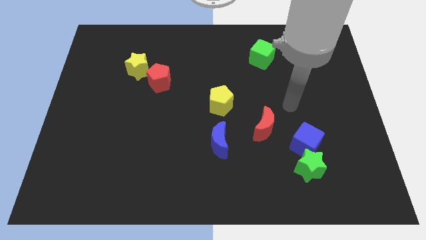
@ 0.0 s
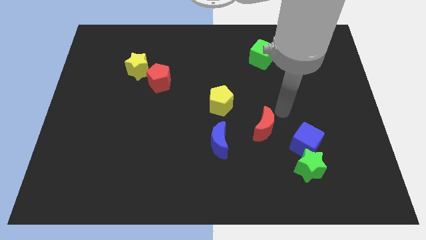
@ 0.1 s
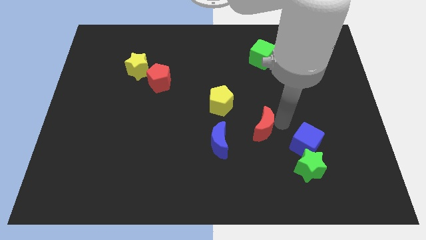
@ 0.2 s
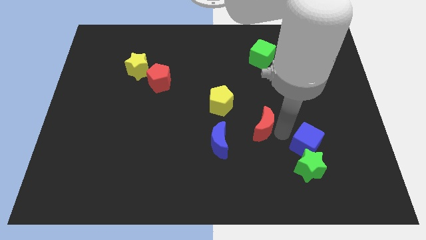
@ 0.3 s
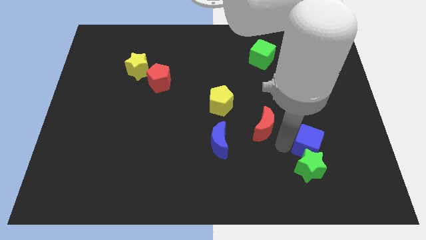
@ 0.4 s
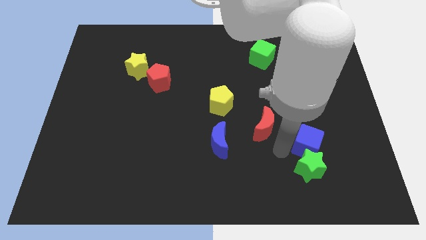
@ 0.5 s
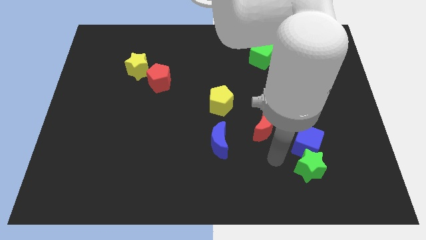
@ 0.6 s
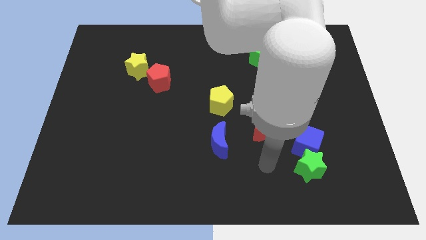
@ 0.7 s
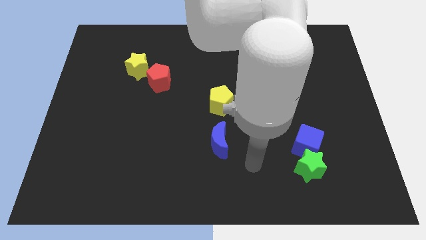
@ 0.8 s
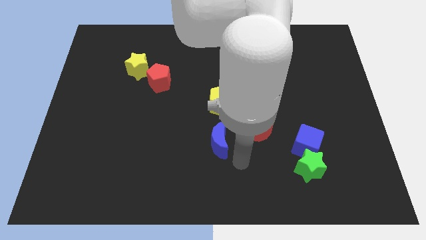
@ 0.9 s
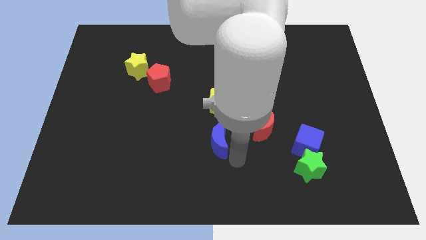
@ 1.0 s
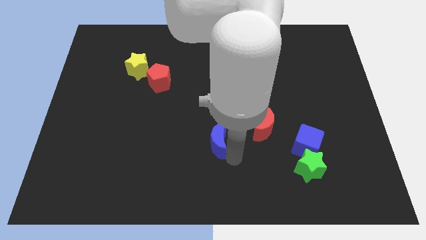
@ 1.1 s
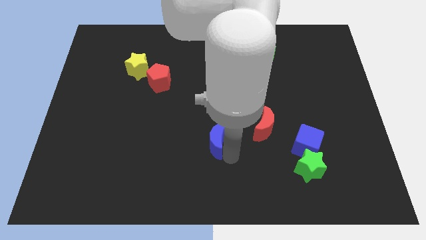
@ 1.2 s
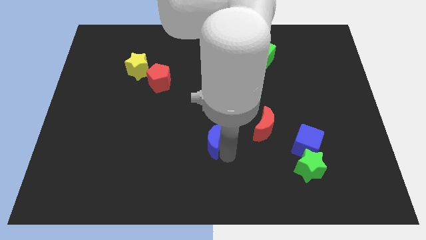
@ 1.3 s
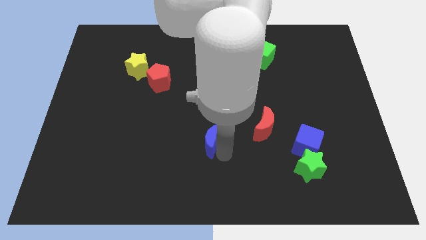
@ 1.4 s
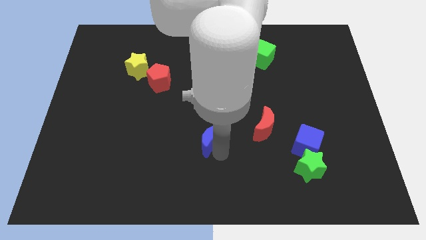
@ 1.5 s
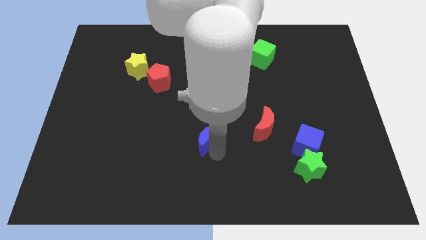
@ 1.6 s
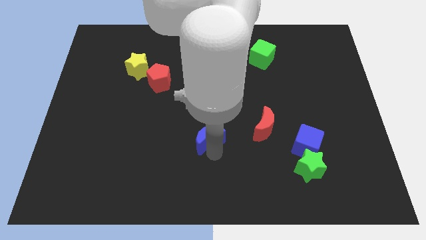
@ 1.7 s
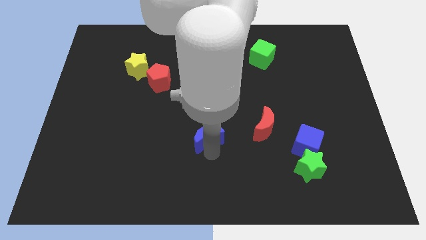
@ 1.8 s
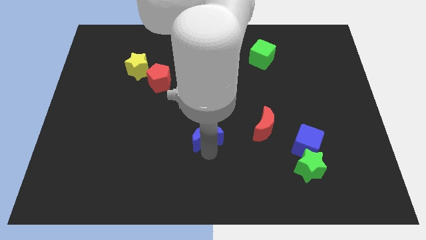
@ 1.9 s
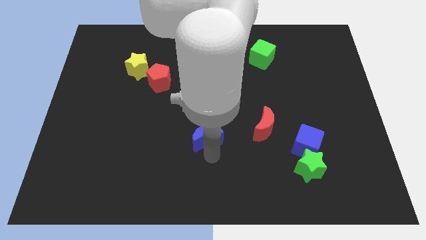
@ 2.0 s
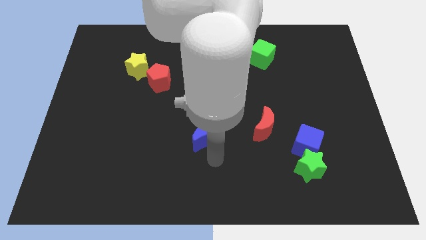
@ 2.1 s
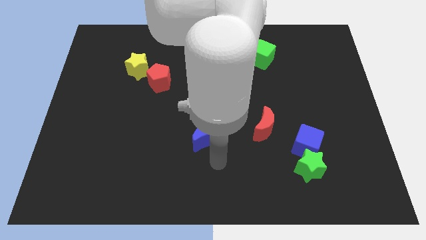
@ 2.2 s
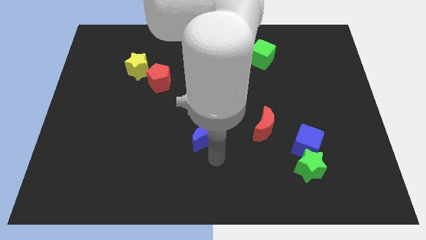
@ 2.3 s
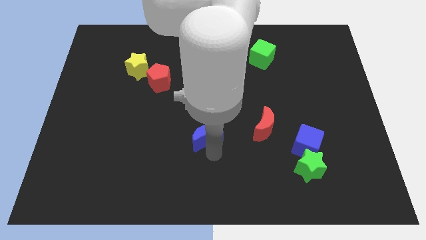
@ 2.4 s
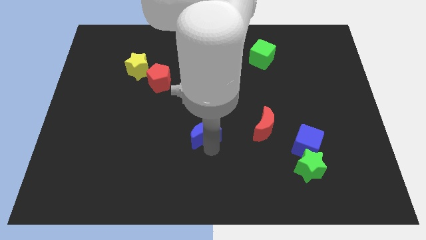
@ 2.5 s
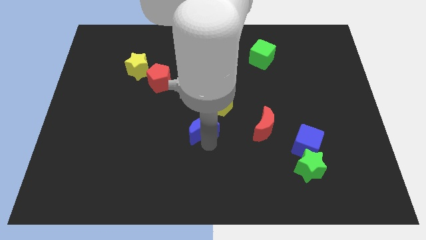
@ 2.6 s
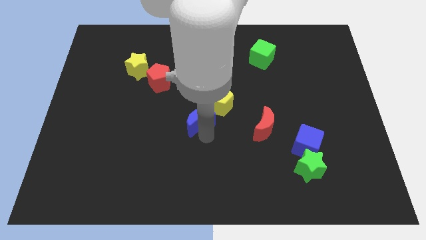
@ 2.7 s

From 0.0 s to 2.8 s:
push the blue moon a little upwards and left

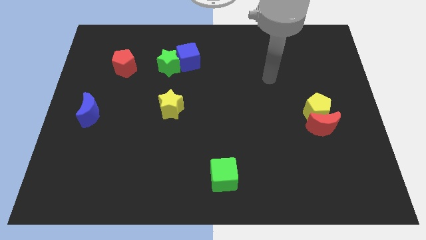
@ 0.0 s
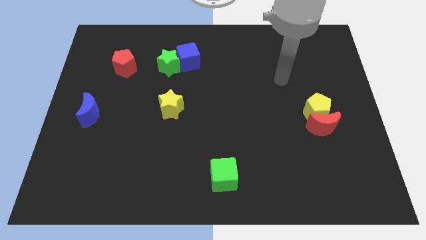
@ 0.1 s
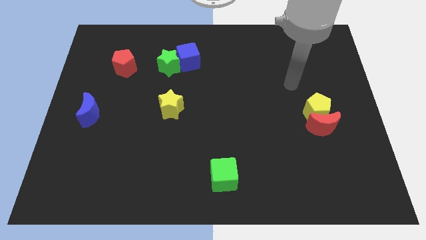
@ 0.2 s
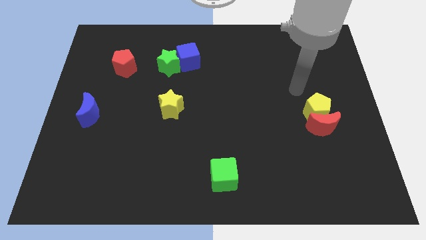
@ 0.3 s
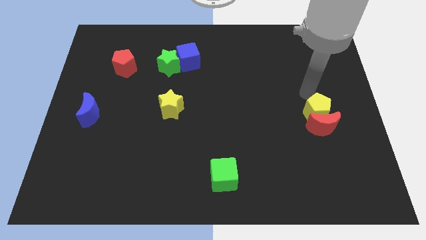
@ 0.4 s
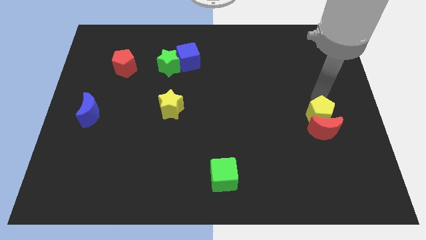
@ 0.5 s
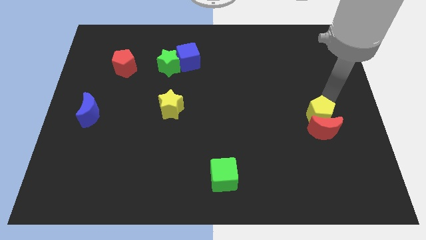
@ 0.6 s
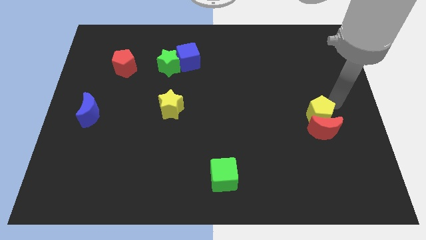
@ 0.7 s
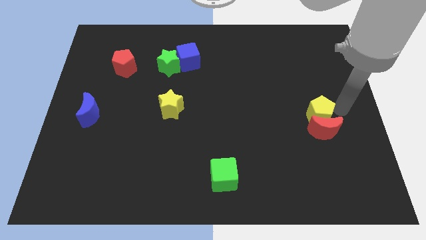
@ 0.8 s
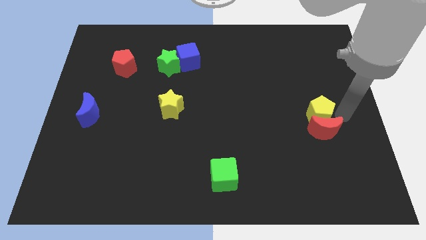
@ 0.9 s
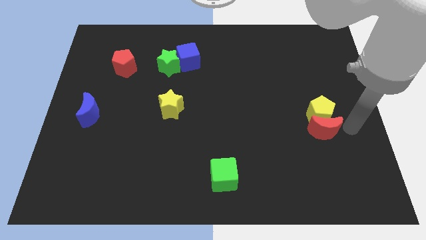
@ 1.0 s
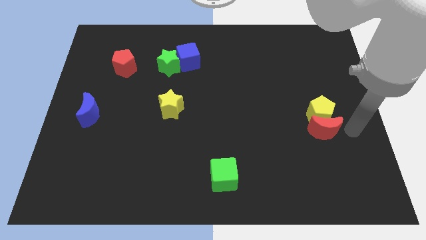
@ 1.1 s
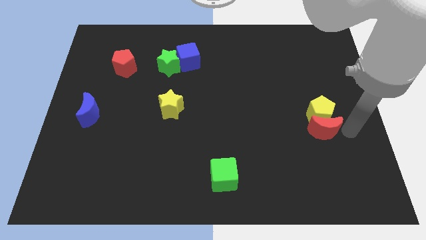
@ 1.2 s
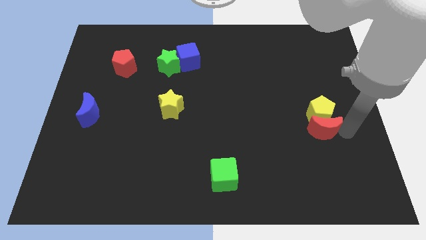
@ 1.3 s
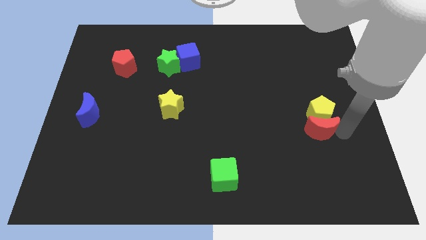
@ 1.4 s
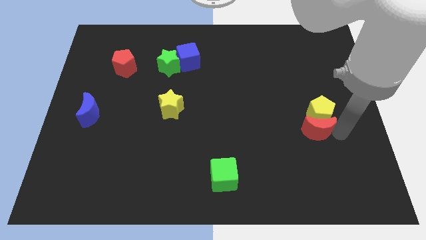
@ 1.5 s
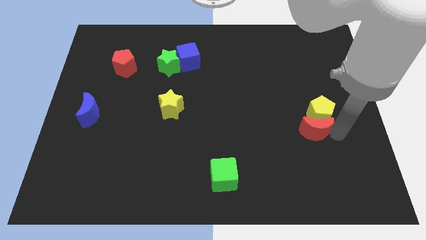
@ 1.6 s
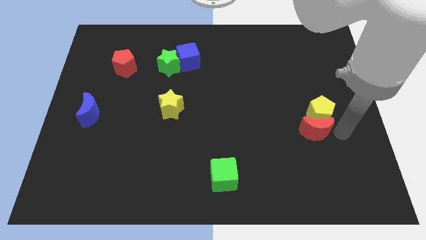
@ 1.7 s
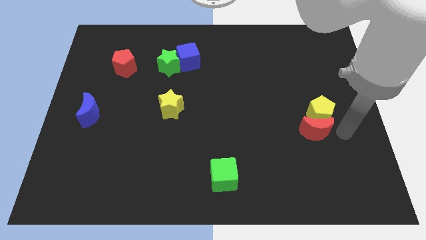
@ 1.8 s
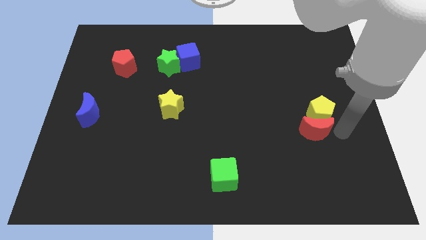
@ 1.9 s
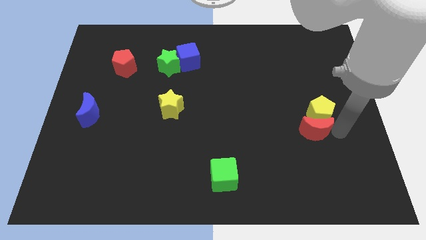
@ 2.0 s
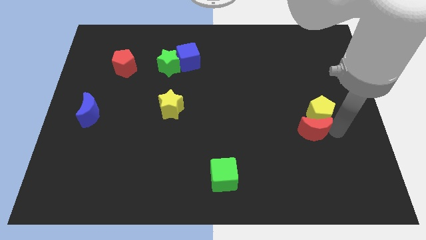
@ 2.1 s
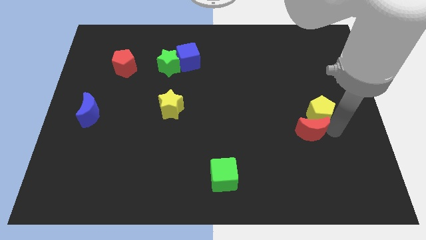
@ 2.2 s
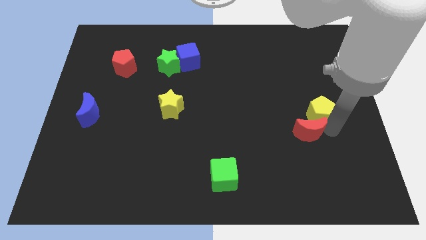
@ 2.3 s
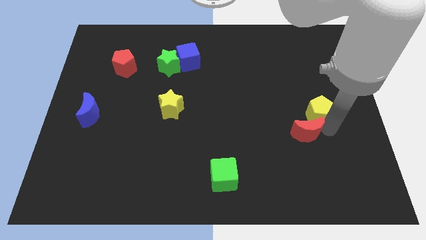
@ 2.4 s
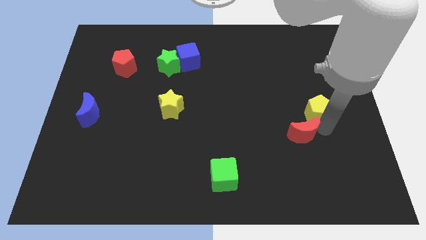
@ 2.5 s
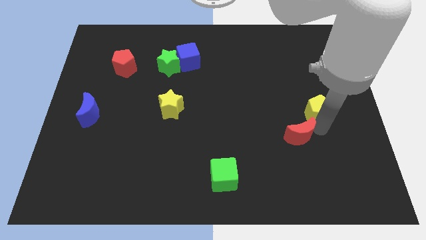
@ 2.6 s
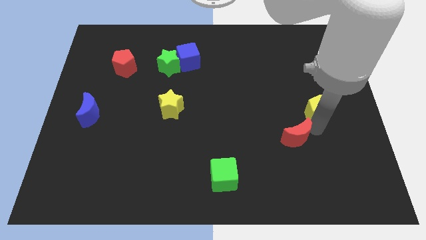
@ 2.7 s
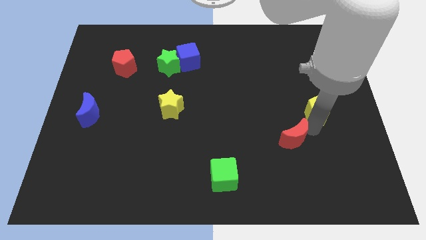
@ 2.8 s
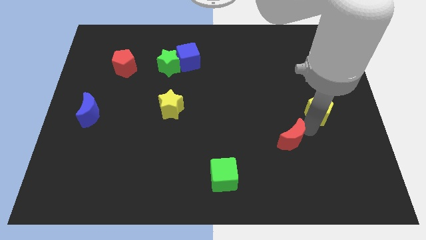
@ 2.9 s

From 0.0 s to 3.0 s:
slide the red moon a bit to the left

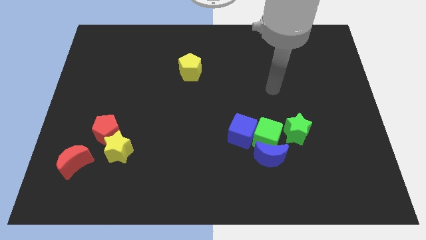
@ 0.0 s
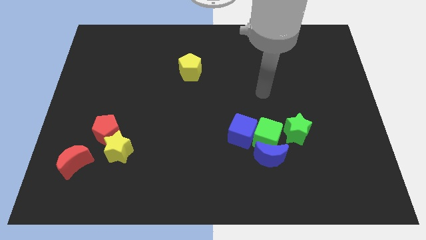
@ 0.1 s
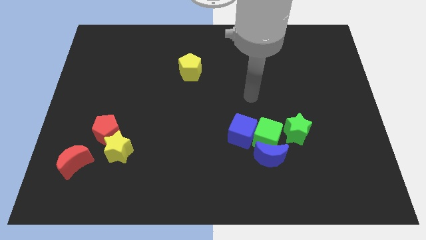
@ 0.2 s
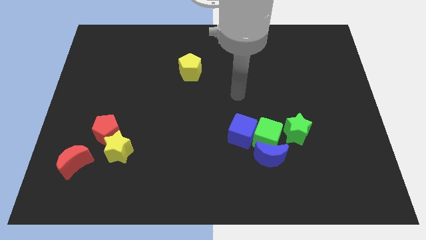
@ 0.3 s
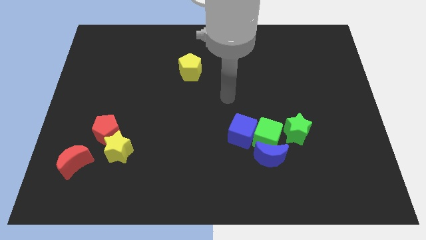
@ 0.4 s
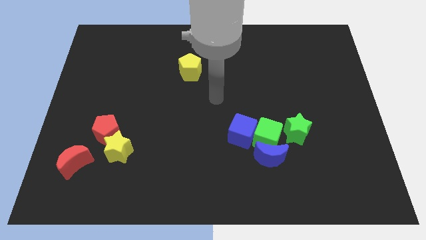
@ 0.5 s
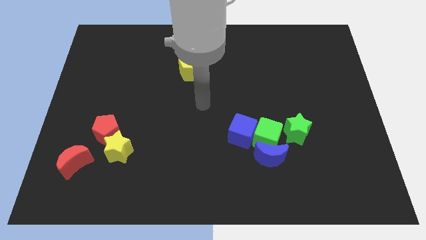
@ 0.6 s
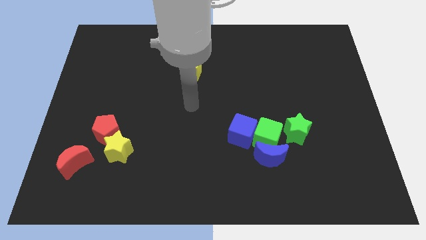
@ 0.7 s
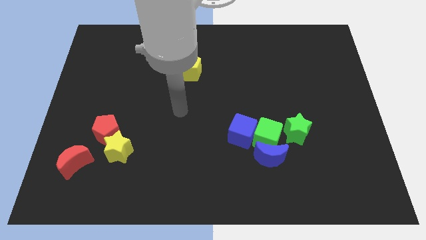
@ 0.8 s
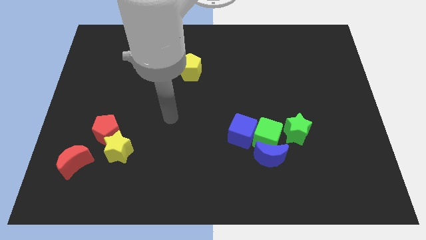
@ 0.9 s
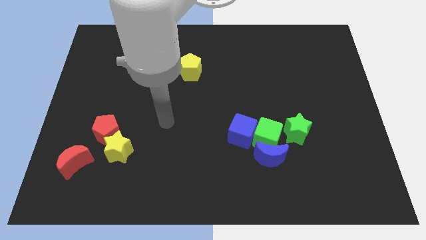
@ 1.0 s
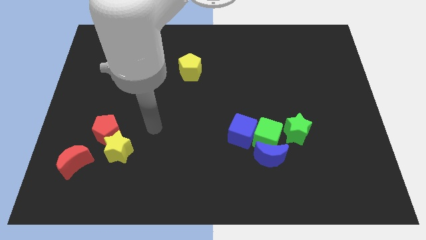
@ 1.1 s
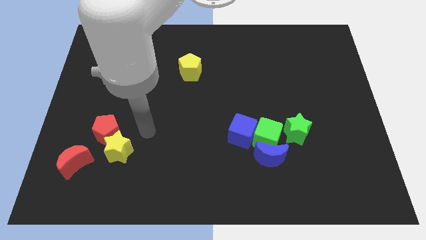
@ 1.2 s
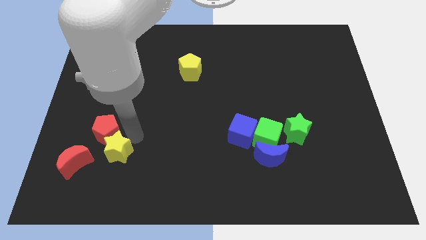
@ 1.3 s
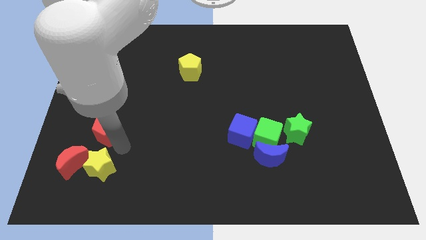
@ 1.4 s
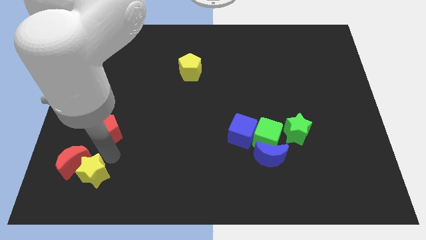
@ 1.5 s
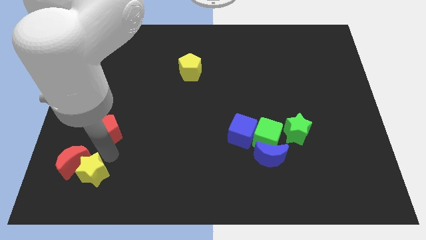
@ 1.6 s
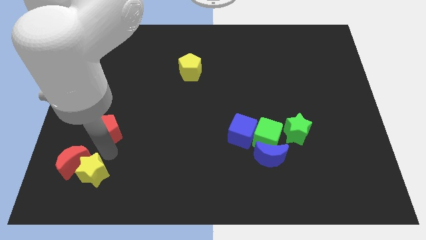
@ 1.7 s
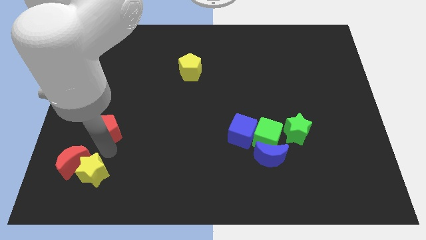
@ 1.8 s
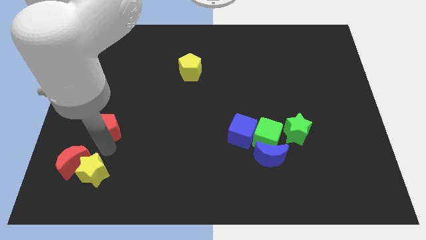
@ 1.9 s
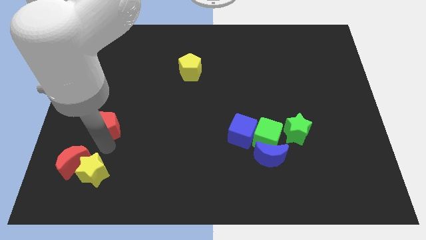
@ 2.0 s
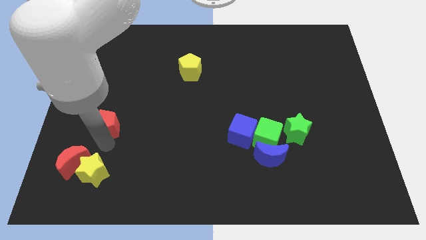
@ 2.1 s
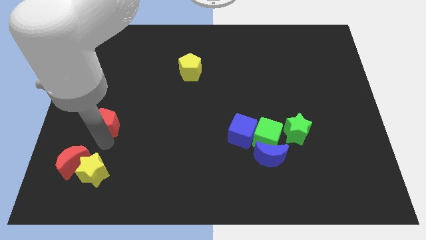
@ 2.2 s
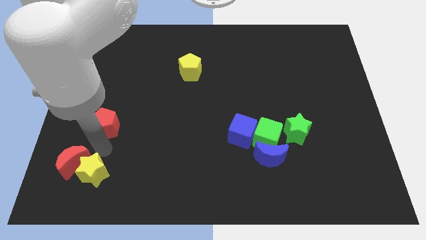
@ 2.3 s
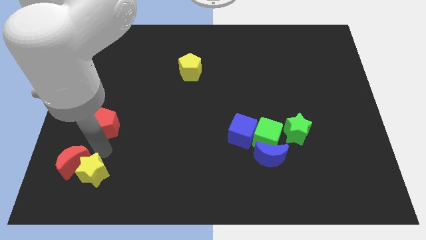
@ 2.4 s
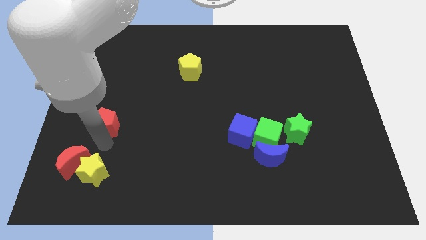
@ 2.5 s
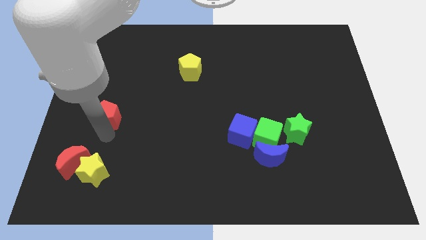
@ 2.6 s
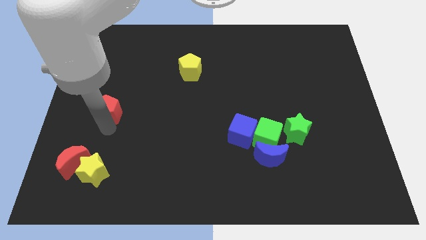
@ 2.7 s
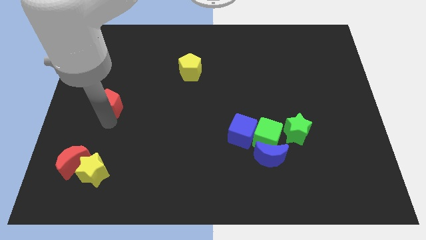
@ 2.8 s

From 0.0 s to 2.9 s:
move the red pentagon upwards a bit
